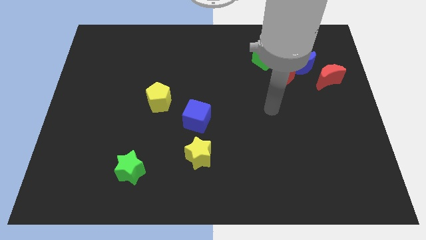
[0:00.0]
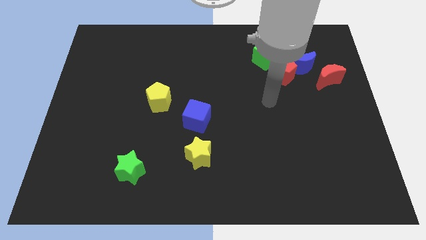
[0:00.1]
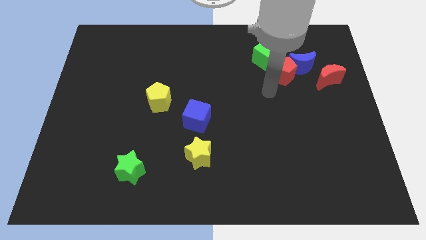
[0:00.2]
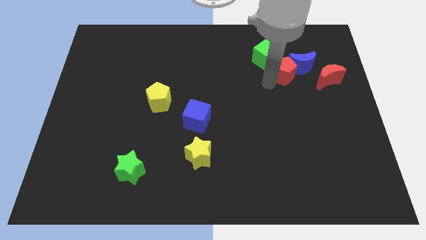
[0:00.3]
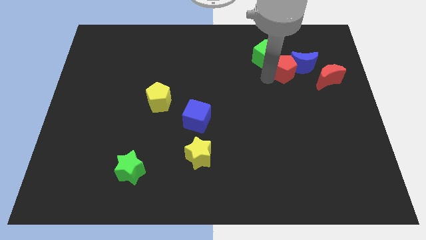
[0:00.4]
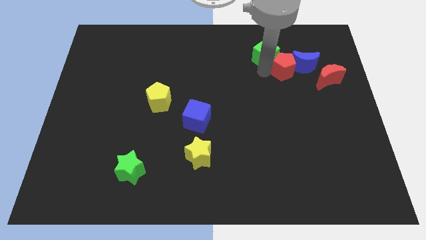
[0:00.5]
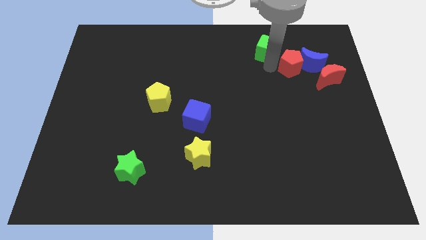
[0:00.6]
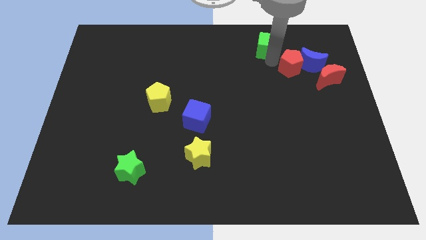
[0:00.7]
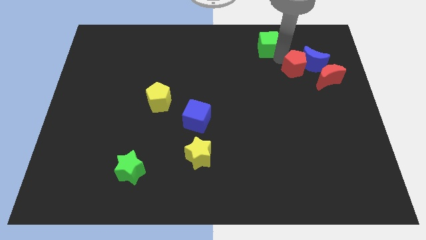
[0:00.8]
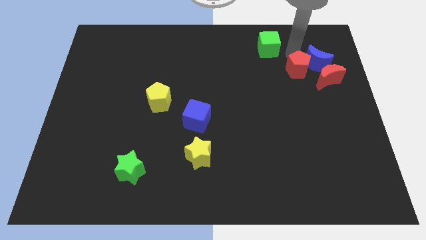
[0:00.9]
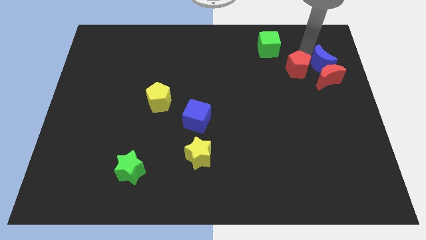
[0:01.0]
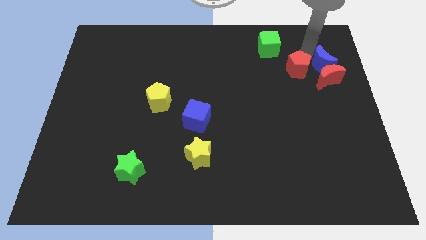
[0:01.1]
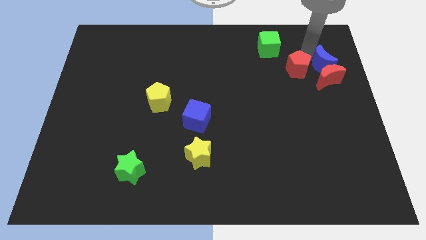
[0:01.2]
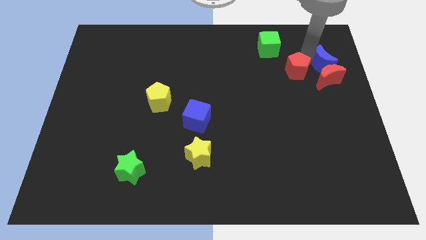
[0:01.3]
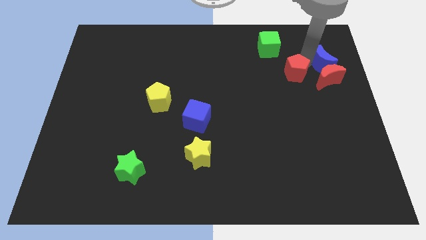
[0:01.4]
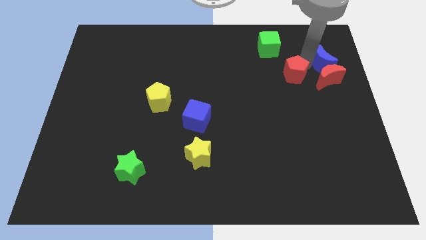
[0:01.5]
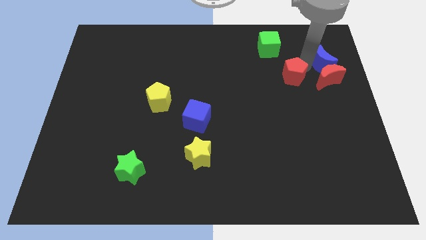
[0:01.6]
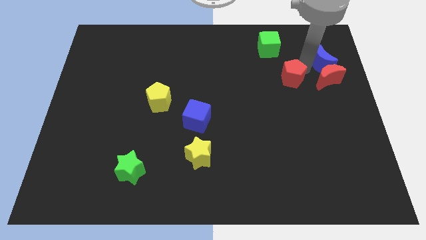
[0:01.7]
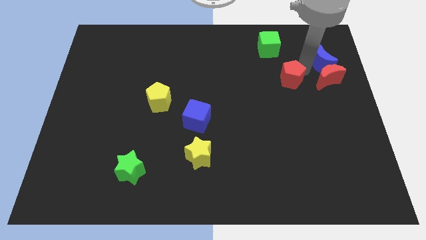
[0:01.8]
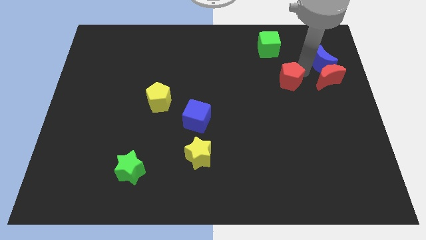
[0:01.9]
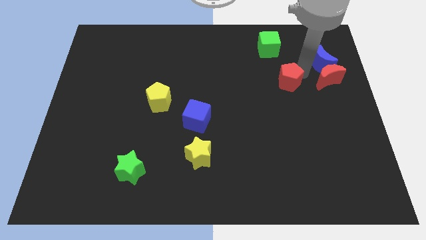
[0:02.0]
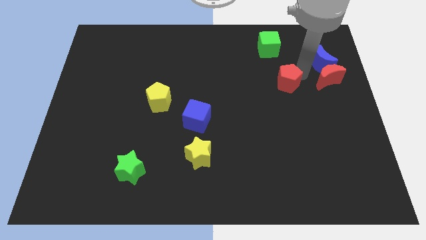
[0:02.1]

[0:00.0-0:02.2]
separate the red pentagon from the blue moon and green cube

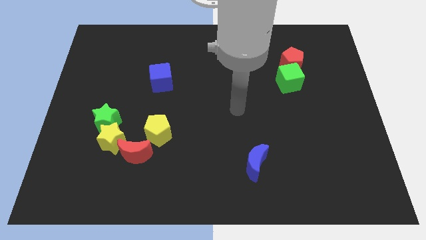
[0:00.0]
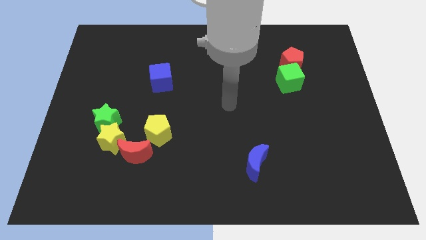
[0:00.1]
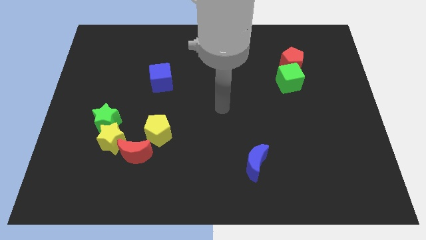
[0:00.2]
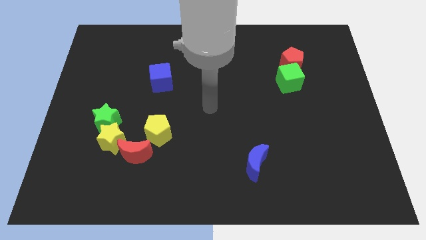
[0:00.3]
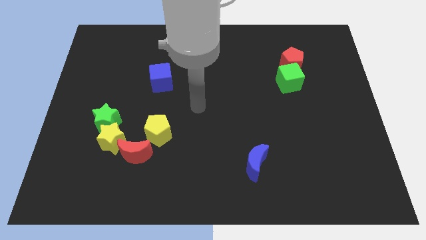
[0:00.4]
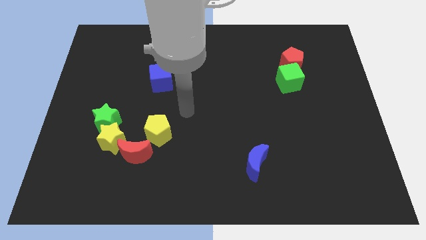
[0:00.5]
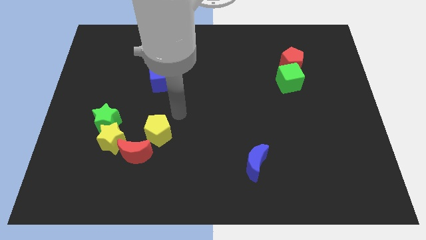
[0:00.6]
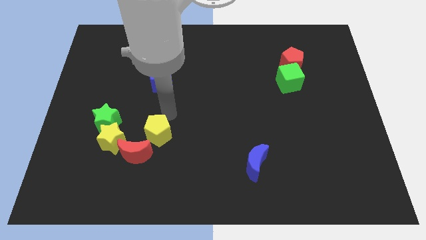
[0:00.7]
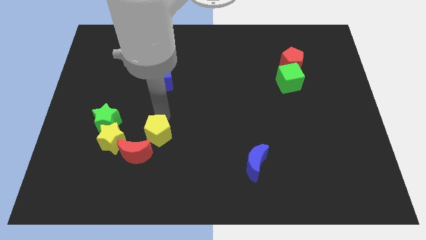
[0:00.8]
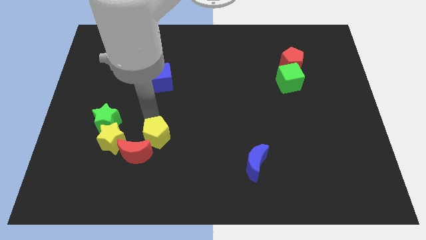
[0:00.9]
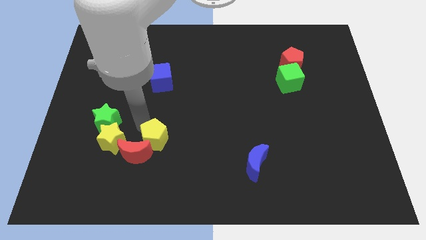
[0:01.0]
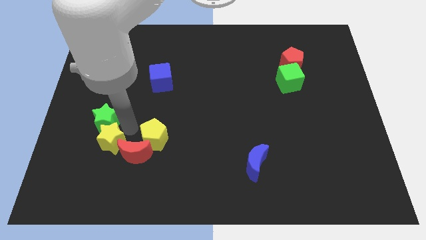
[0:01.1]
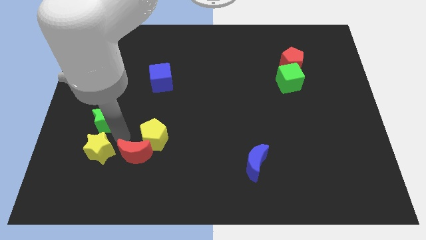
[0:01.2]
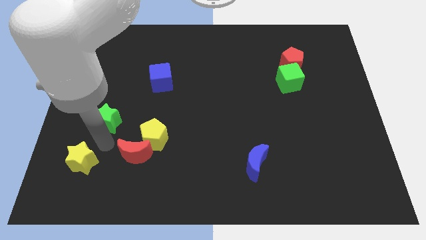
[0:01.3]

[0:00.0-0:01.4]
move the green star away from the yellow star

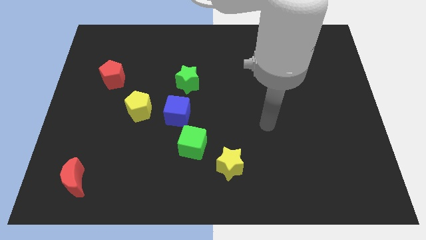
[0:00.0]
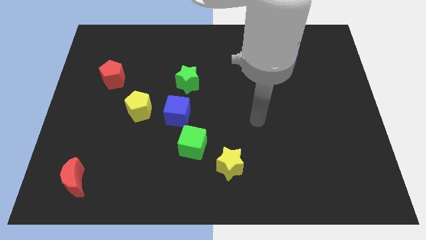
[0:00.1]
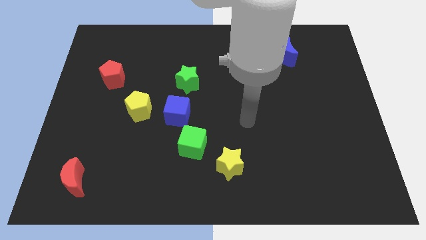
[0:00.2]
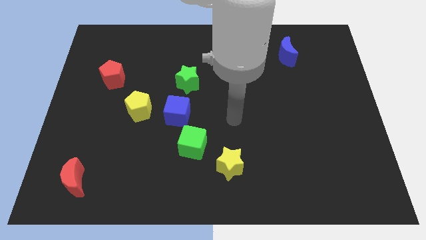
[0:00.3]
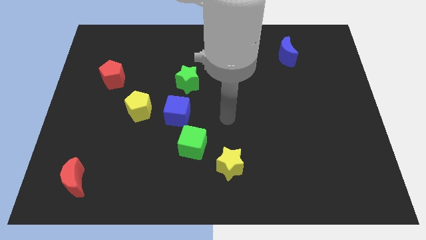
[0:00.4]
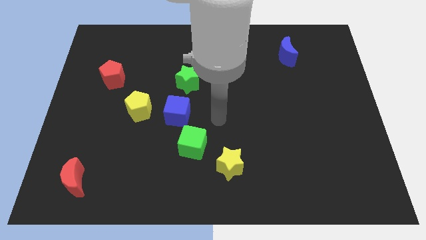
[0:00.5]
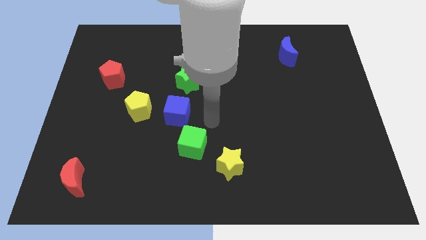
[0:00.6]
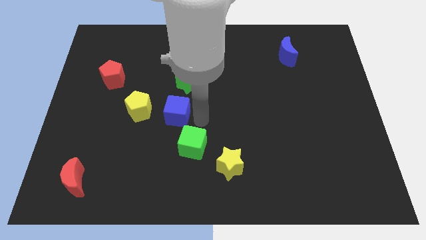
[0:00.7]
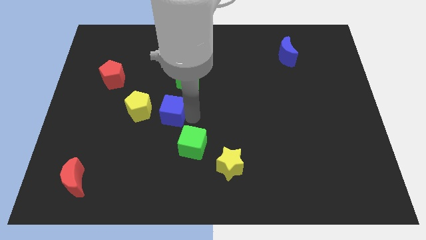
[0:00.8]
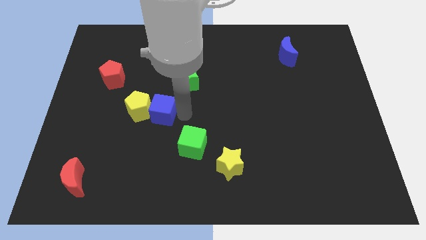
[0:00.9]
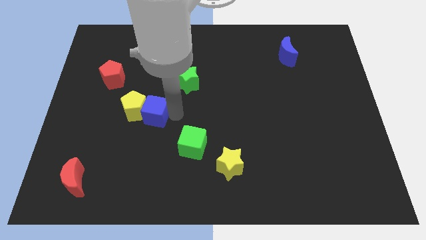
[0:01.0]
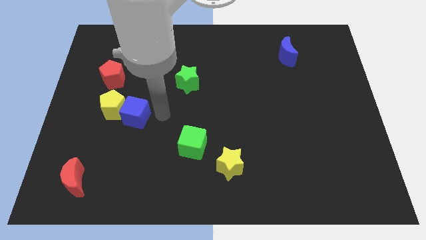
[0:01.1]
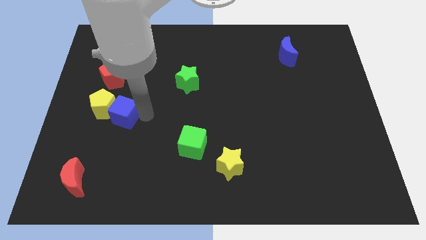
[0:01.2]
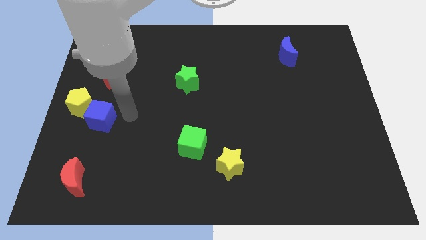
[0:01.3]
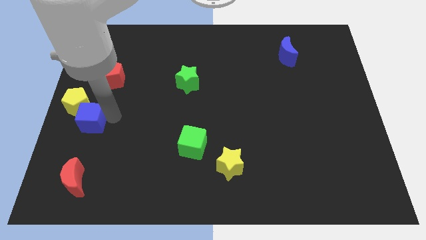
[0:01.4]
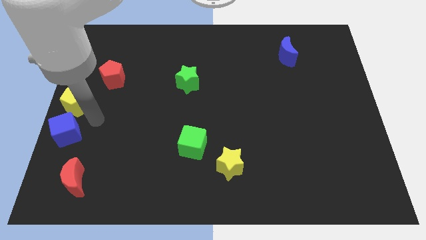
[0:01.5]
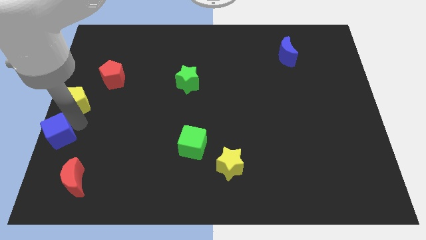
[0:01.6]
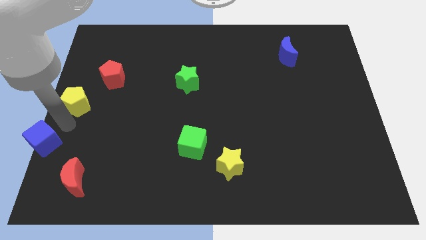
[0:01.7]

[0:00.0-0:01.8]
separate the yellow pentagon from the blue cube

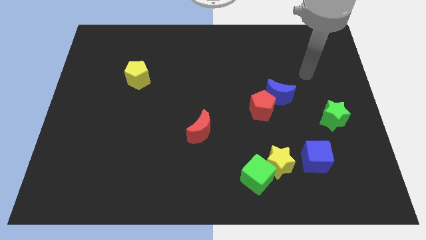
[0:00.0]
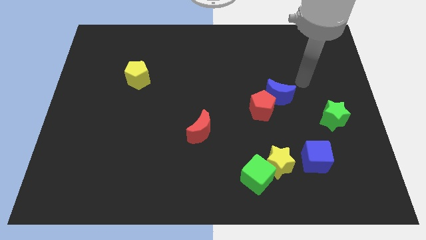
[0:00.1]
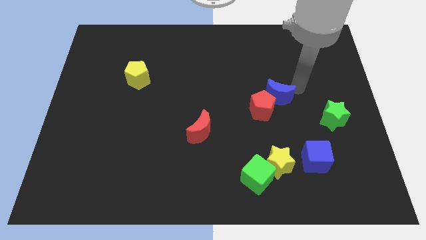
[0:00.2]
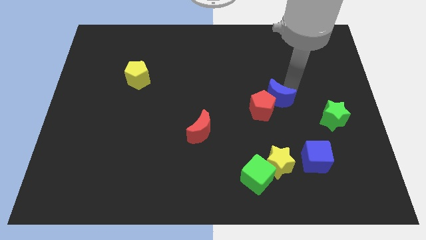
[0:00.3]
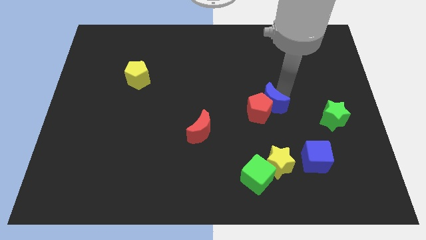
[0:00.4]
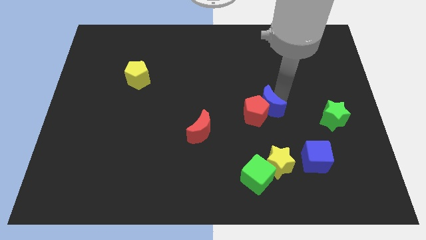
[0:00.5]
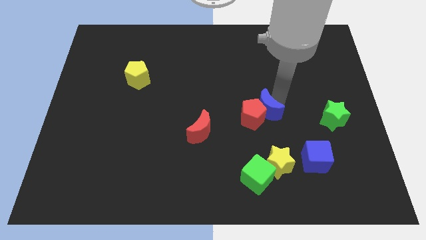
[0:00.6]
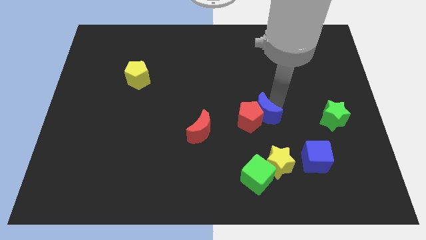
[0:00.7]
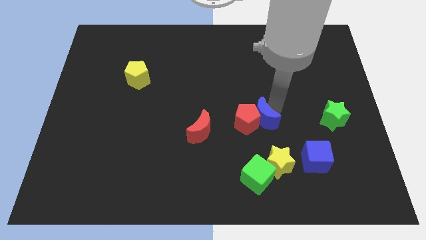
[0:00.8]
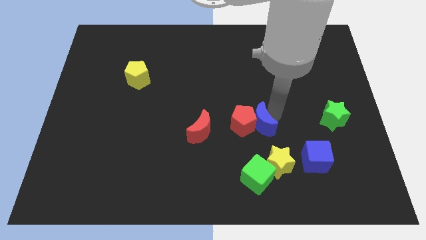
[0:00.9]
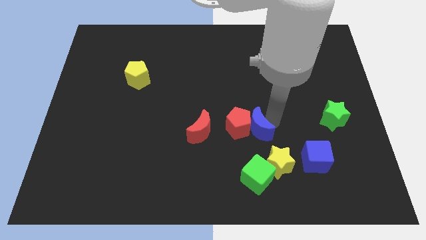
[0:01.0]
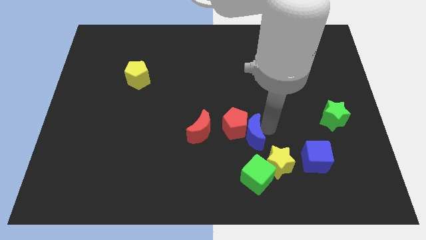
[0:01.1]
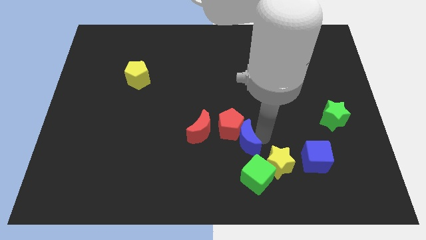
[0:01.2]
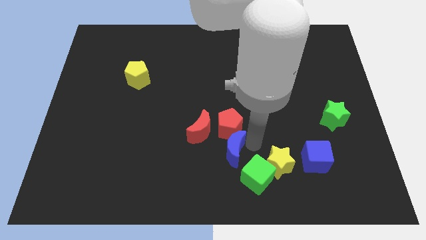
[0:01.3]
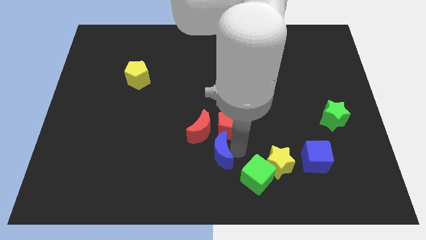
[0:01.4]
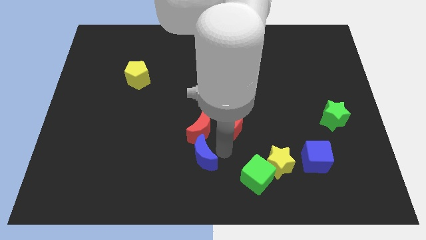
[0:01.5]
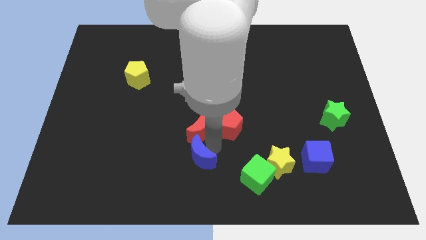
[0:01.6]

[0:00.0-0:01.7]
separate the red pentagon from the blue moon

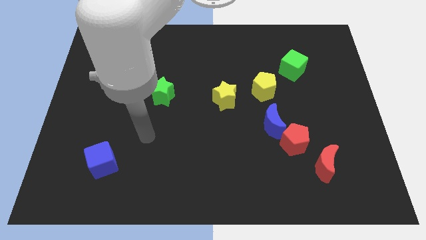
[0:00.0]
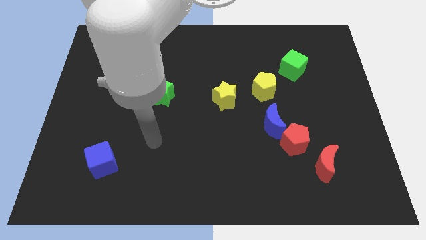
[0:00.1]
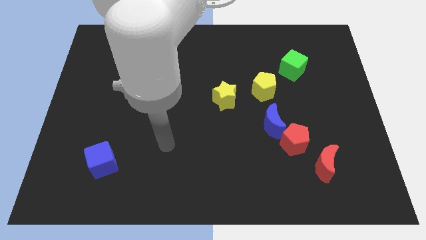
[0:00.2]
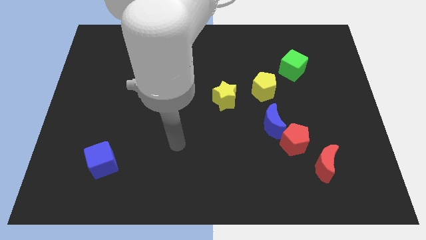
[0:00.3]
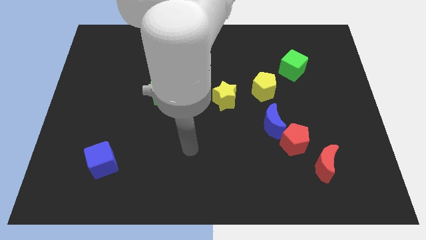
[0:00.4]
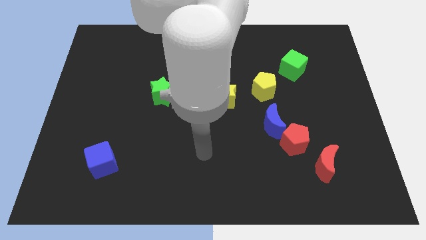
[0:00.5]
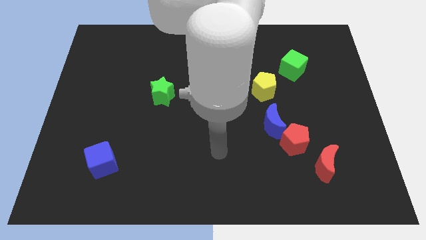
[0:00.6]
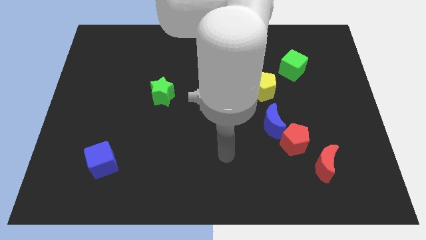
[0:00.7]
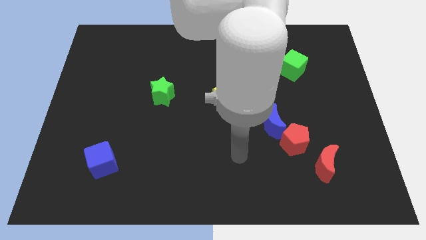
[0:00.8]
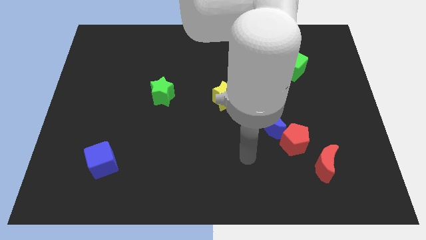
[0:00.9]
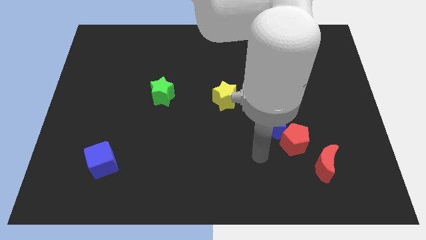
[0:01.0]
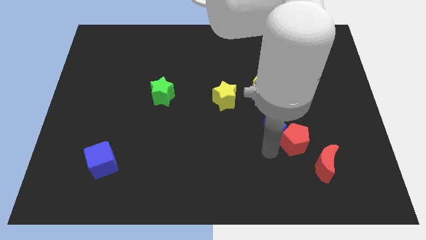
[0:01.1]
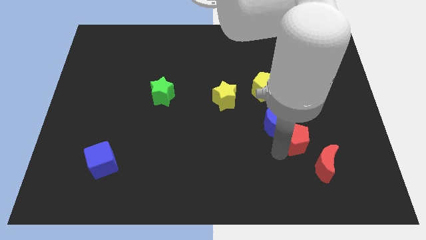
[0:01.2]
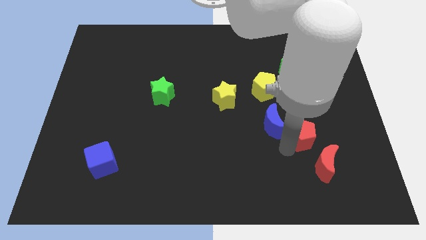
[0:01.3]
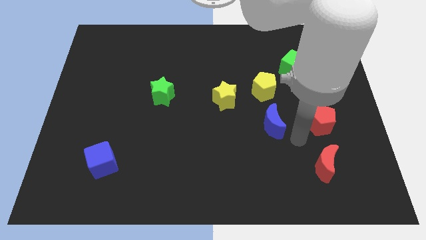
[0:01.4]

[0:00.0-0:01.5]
pull the blue moon apart from the red pentagon

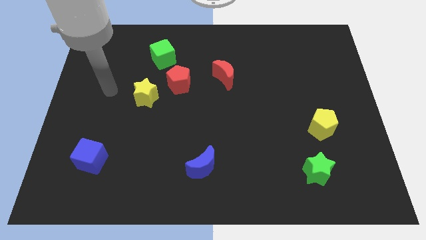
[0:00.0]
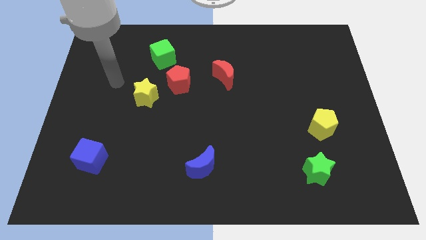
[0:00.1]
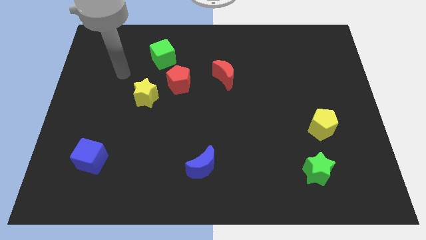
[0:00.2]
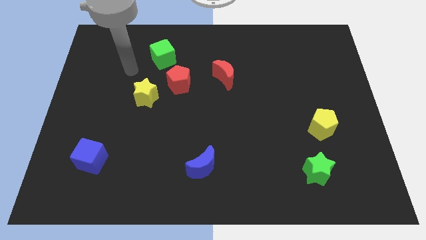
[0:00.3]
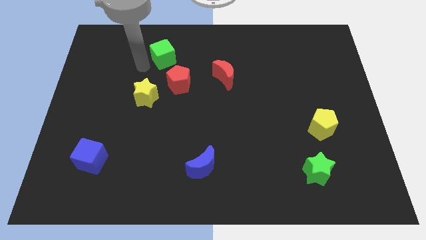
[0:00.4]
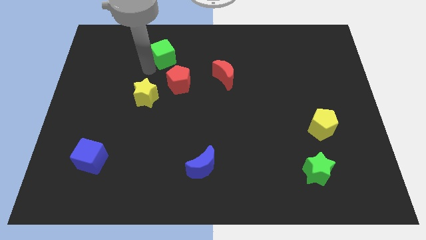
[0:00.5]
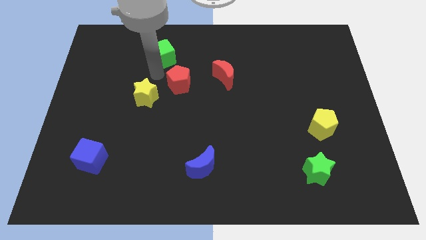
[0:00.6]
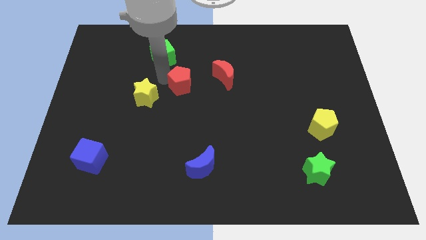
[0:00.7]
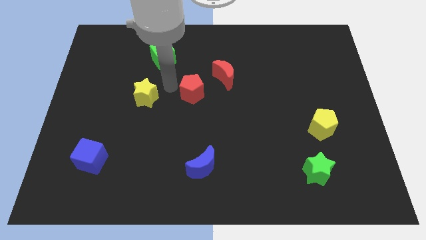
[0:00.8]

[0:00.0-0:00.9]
move the yellow star away from the red pentagon
